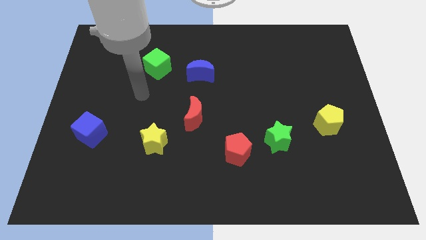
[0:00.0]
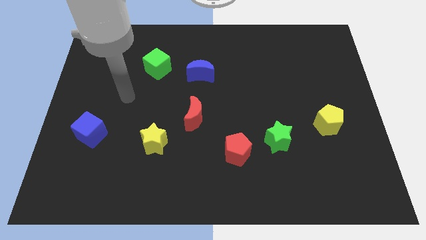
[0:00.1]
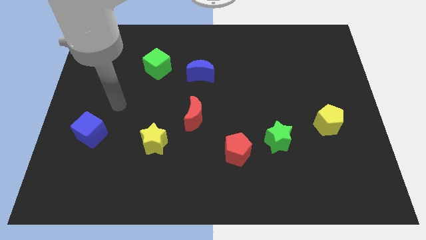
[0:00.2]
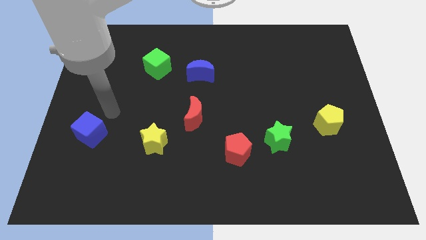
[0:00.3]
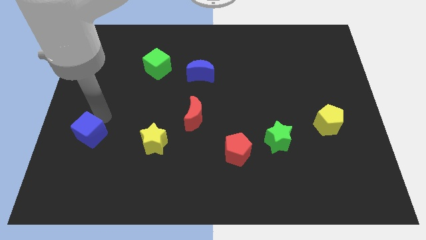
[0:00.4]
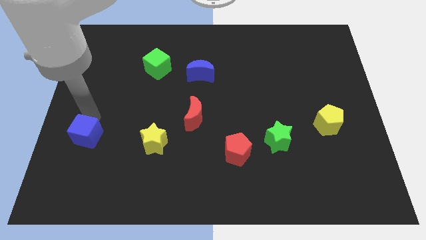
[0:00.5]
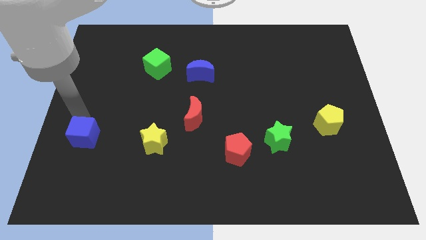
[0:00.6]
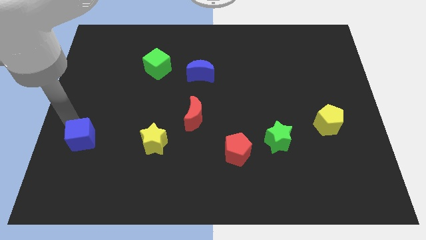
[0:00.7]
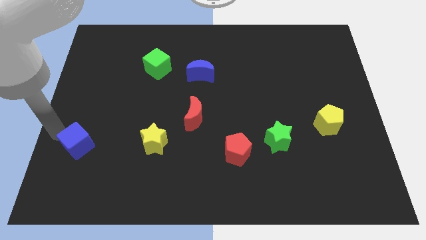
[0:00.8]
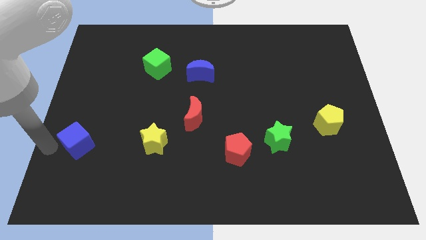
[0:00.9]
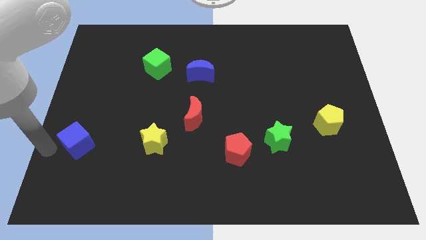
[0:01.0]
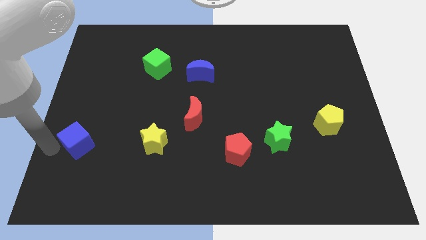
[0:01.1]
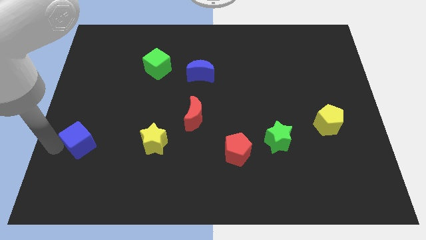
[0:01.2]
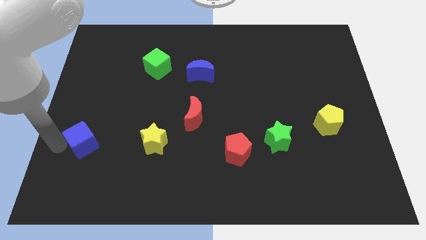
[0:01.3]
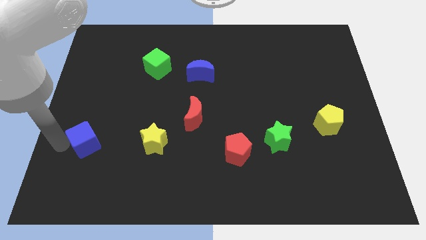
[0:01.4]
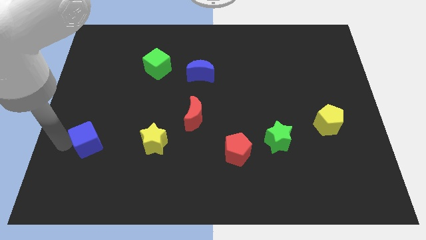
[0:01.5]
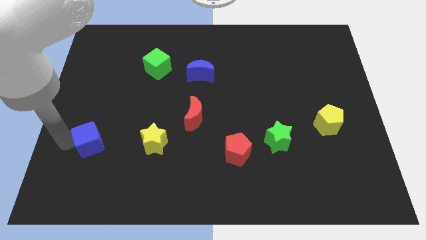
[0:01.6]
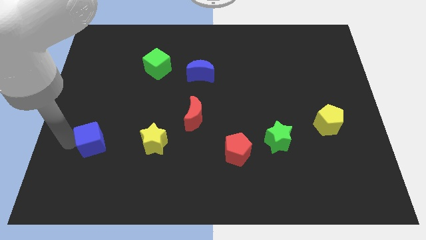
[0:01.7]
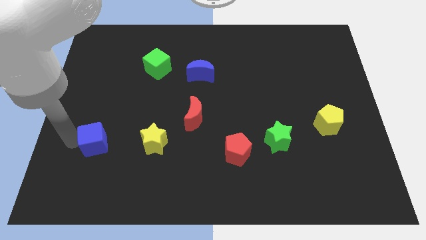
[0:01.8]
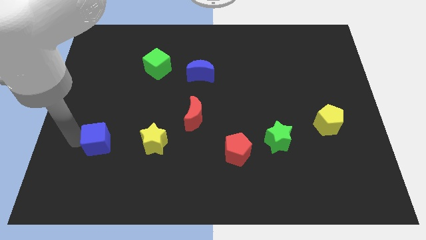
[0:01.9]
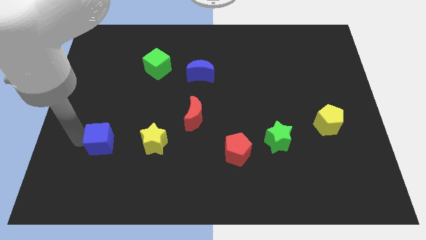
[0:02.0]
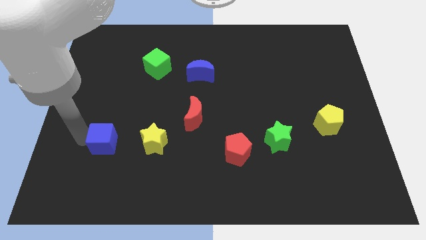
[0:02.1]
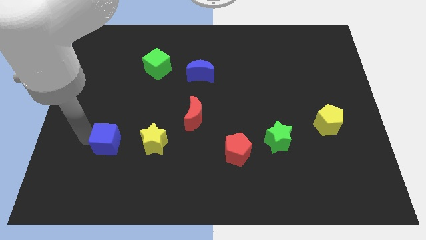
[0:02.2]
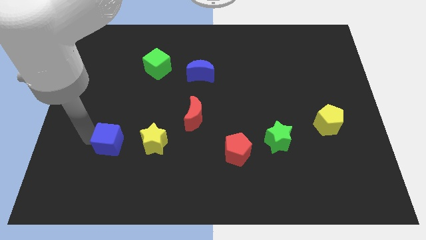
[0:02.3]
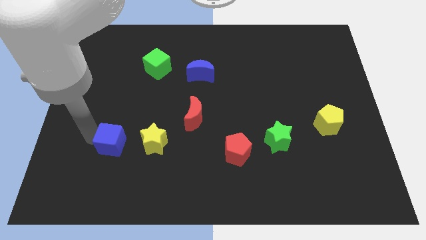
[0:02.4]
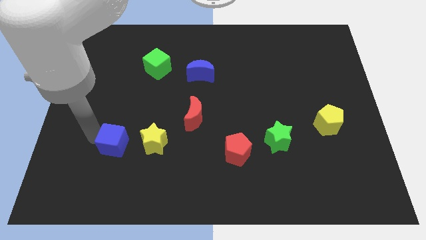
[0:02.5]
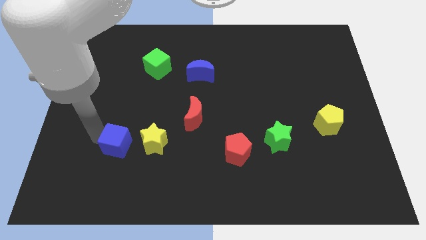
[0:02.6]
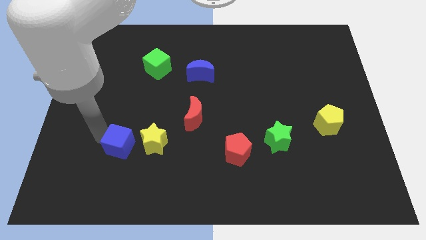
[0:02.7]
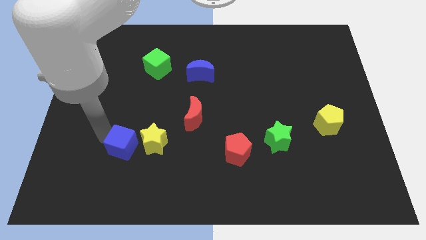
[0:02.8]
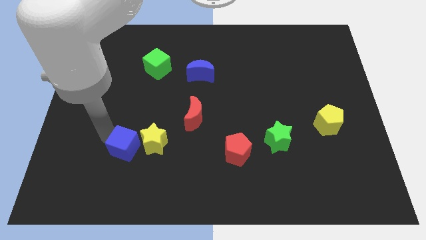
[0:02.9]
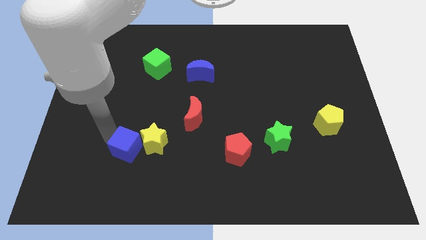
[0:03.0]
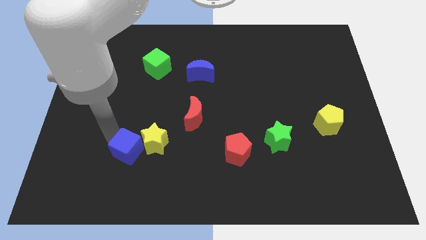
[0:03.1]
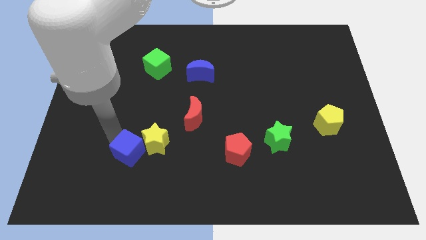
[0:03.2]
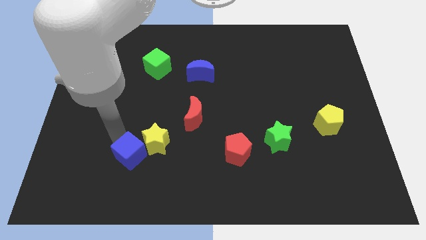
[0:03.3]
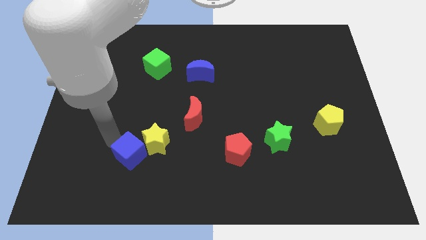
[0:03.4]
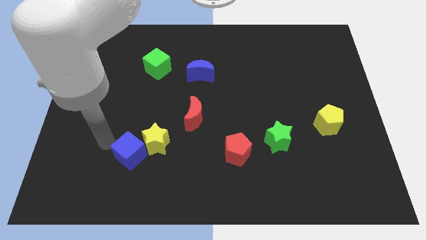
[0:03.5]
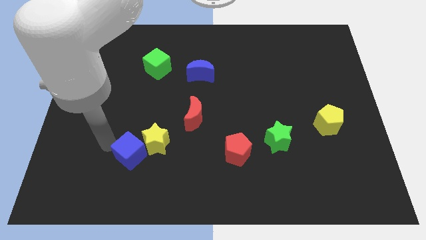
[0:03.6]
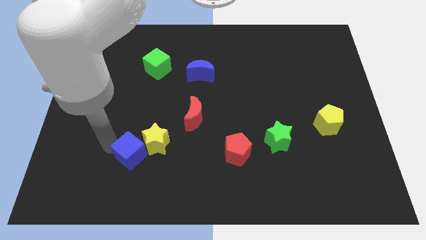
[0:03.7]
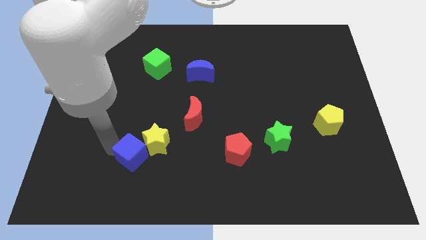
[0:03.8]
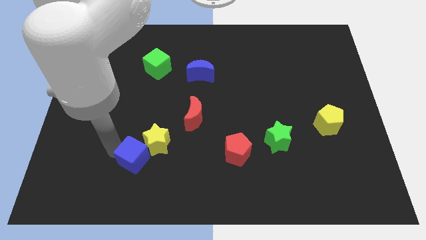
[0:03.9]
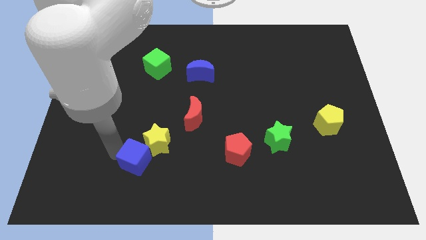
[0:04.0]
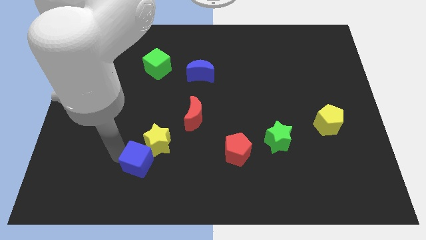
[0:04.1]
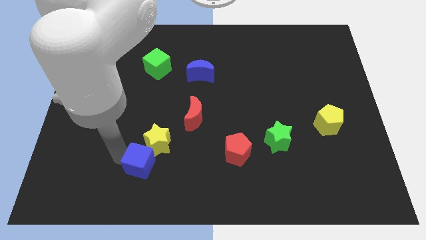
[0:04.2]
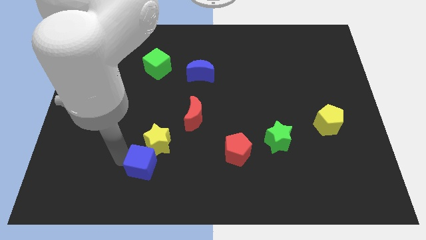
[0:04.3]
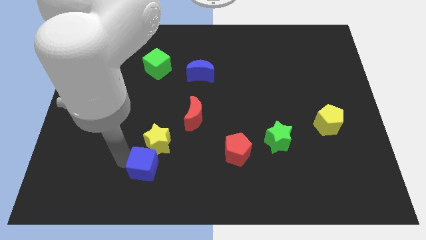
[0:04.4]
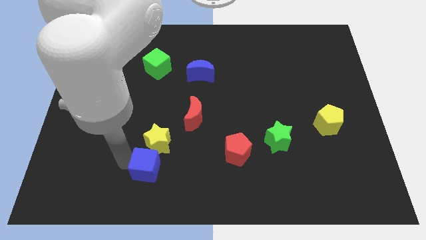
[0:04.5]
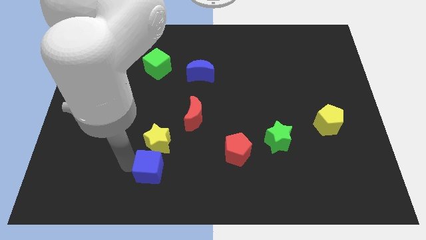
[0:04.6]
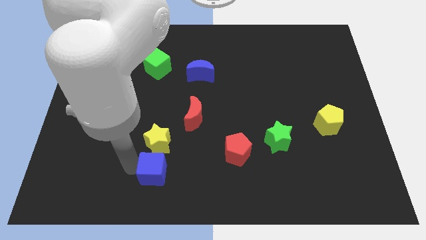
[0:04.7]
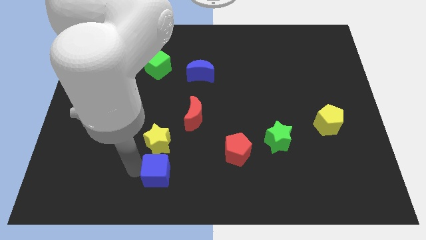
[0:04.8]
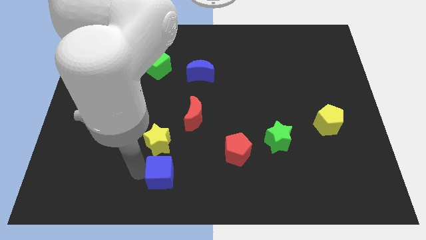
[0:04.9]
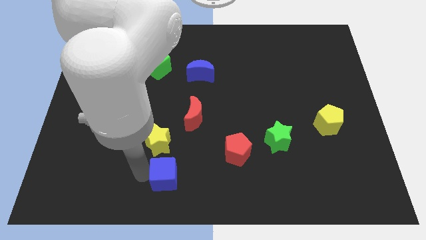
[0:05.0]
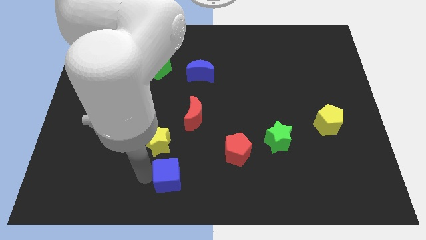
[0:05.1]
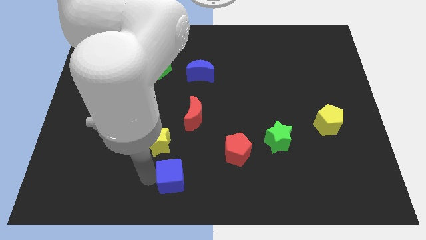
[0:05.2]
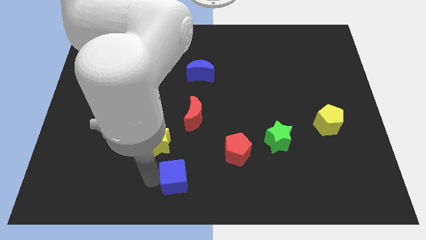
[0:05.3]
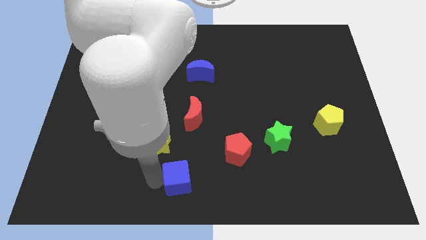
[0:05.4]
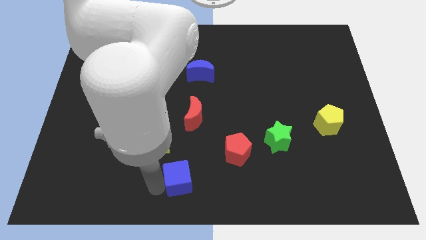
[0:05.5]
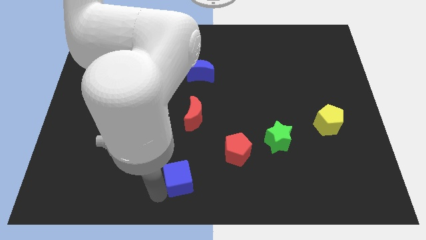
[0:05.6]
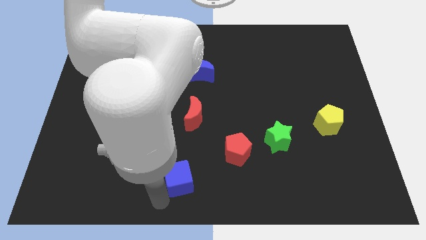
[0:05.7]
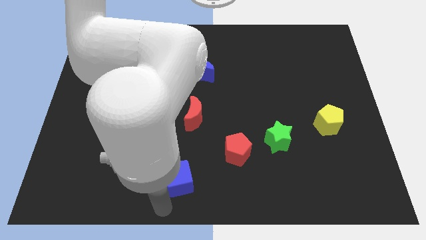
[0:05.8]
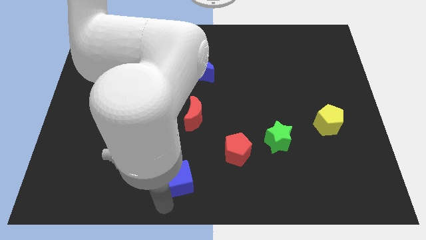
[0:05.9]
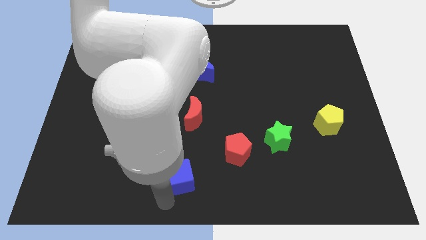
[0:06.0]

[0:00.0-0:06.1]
put the blue cube below the red moon

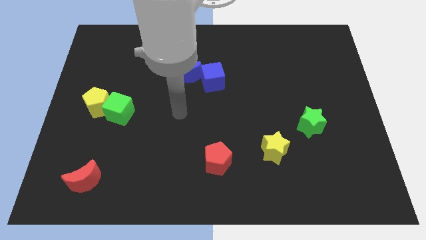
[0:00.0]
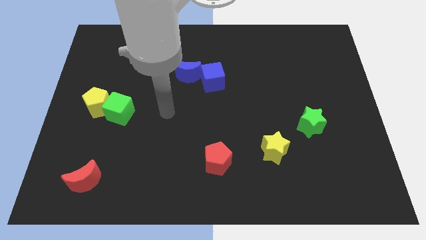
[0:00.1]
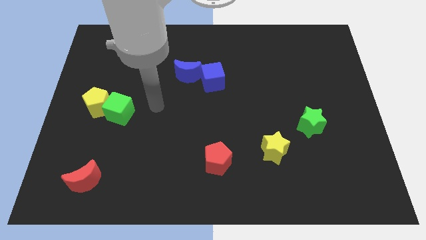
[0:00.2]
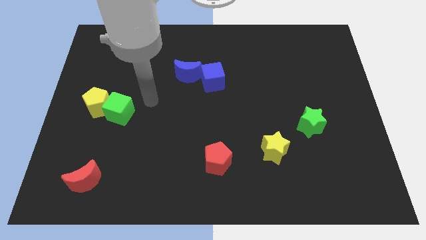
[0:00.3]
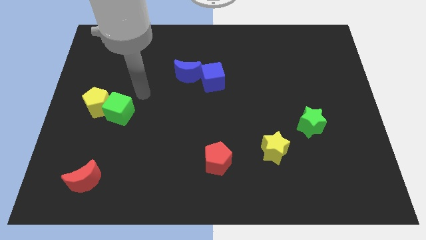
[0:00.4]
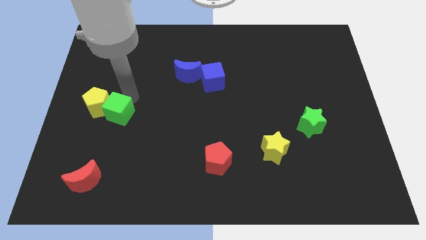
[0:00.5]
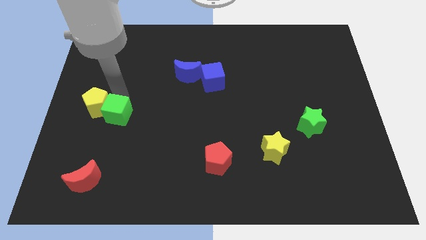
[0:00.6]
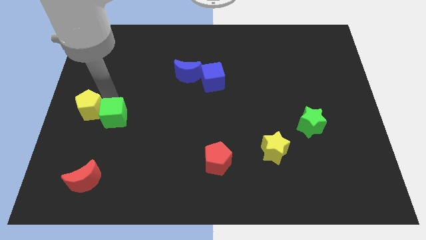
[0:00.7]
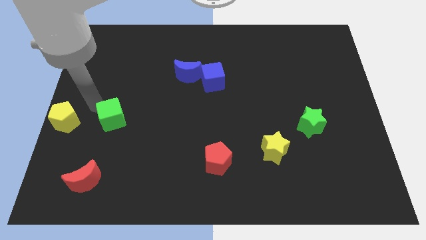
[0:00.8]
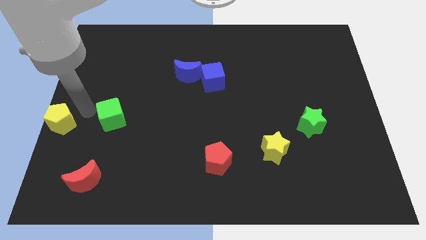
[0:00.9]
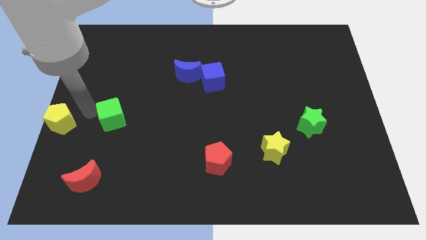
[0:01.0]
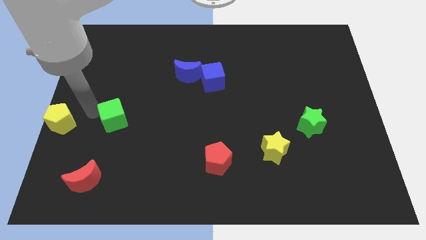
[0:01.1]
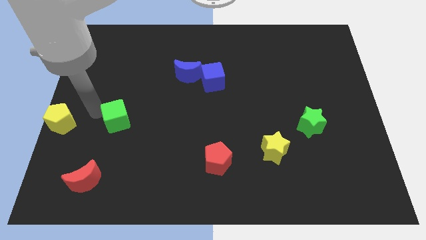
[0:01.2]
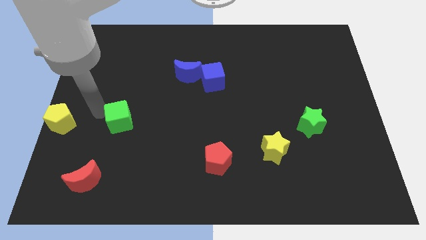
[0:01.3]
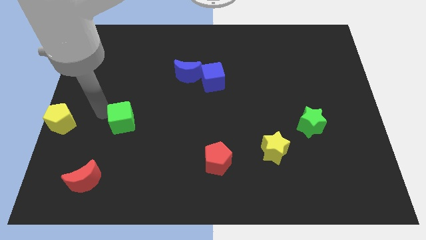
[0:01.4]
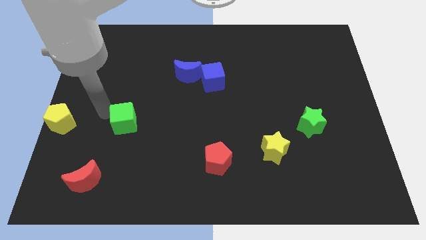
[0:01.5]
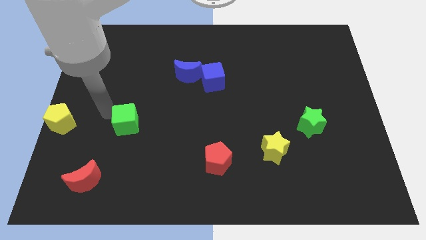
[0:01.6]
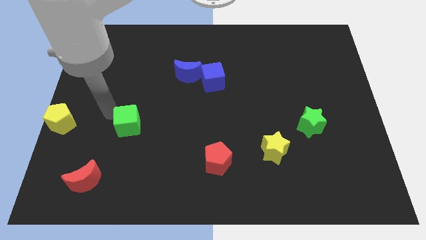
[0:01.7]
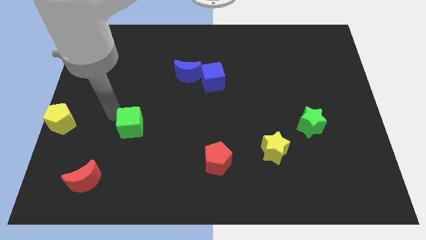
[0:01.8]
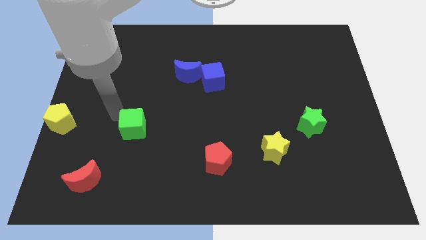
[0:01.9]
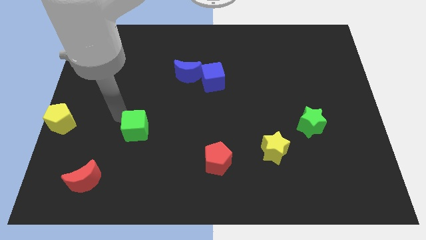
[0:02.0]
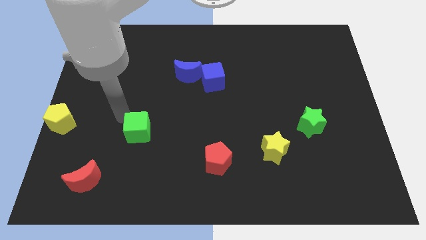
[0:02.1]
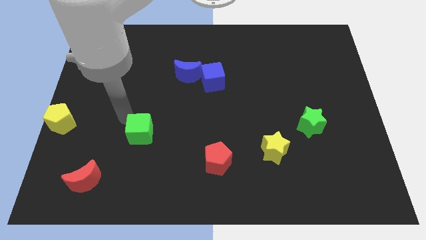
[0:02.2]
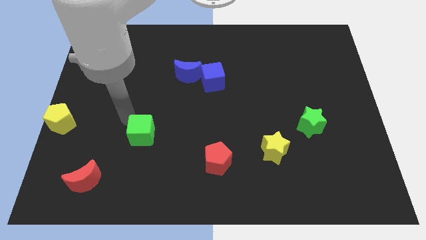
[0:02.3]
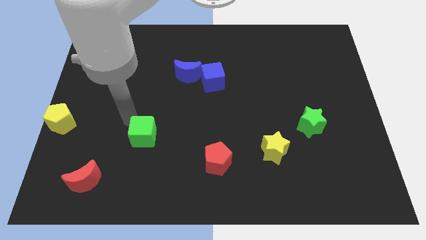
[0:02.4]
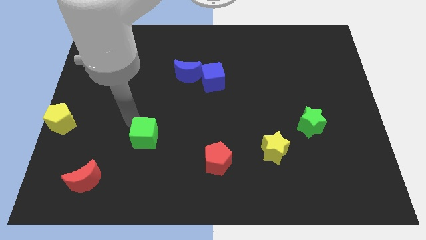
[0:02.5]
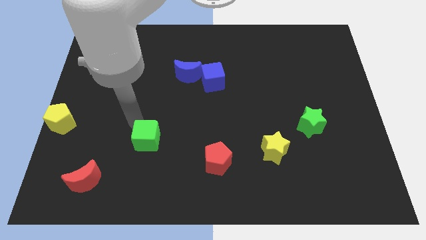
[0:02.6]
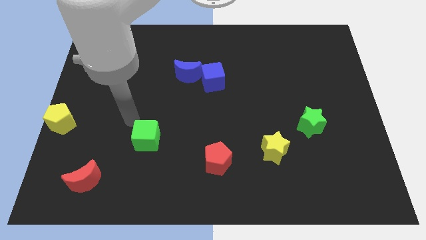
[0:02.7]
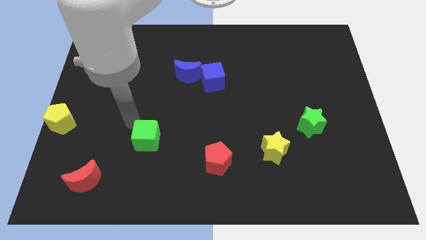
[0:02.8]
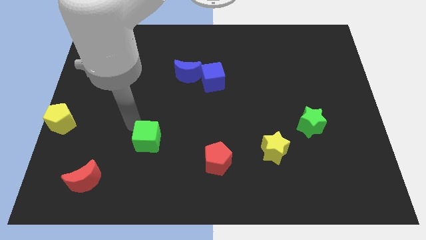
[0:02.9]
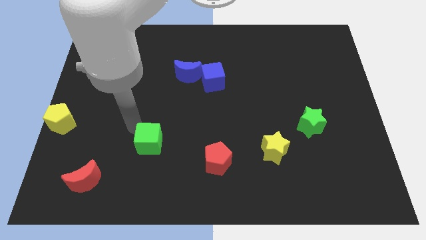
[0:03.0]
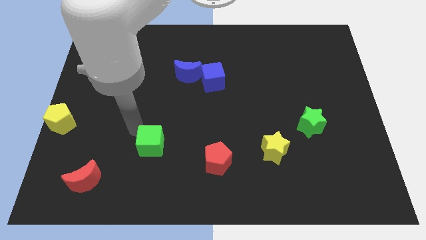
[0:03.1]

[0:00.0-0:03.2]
put the green cube left of the red pentagon
